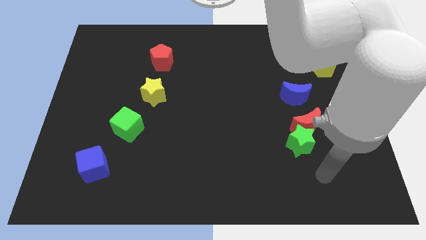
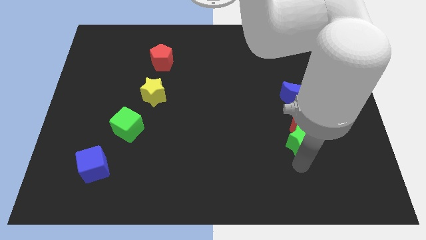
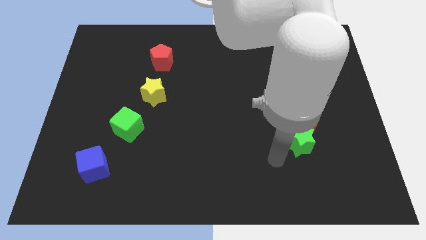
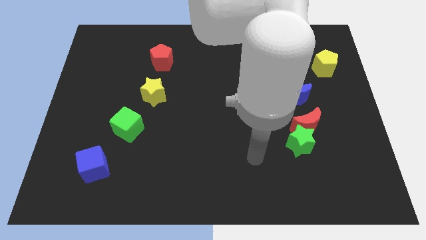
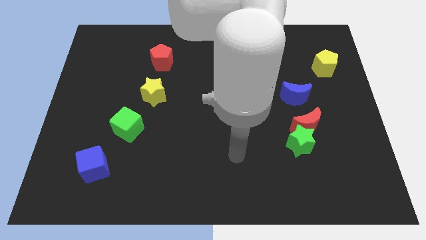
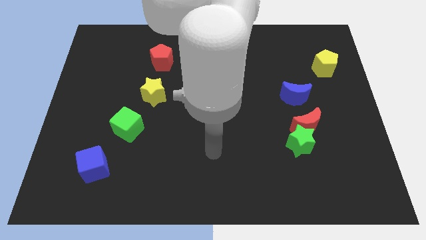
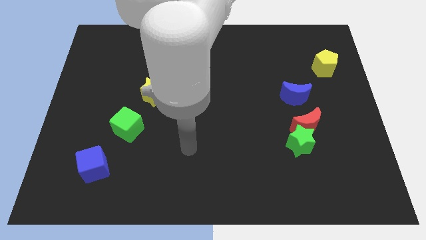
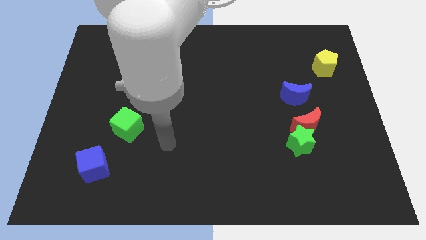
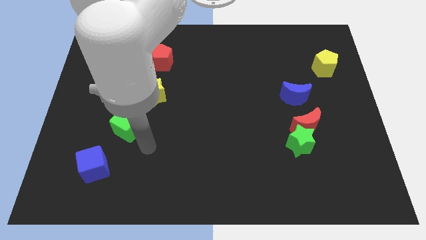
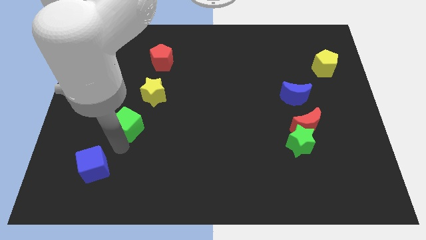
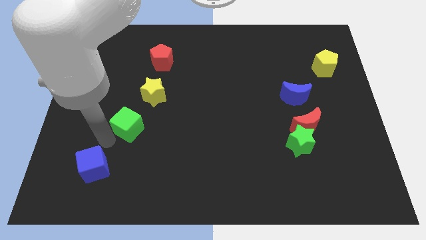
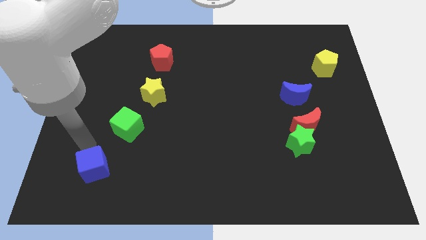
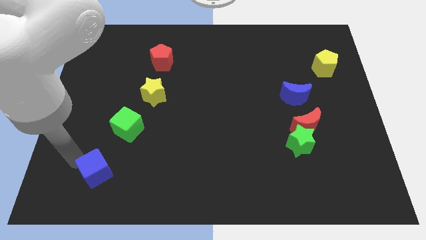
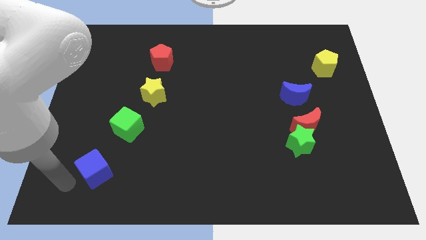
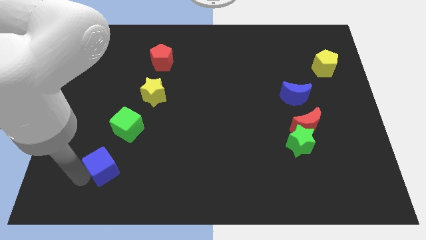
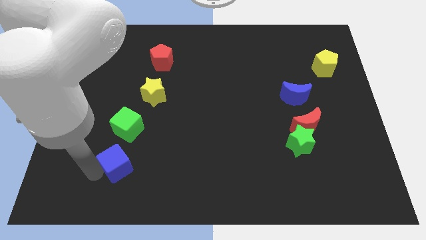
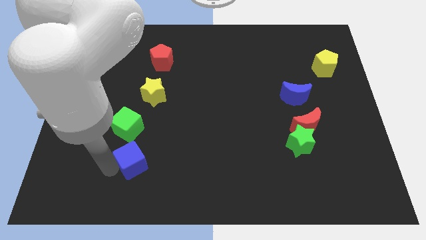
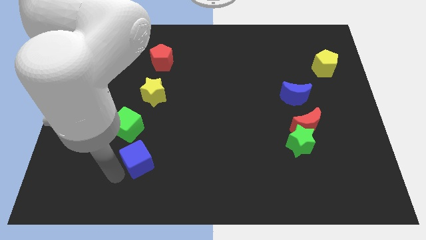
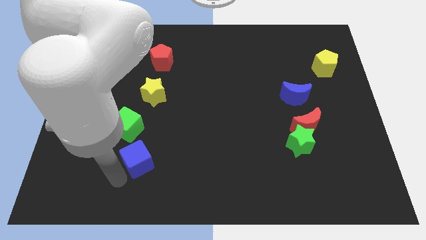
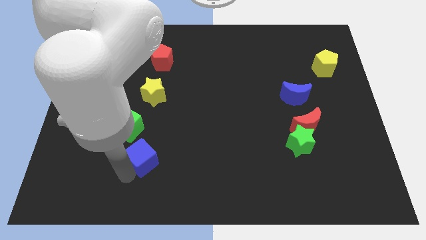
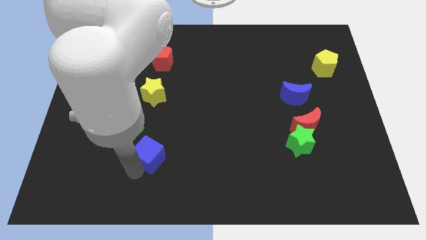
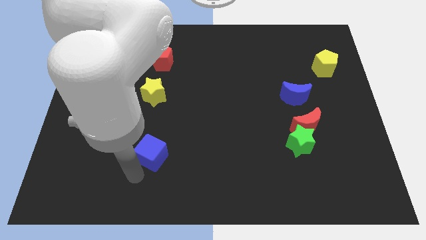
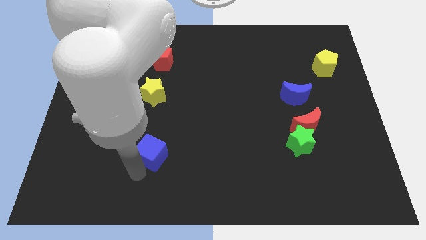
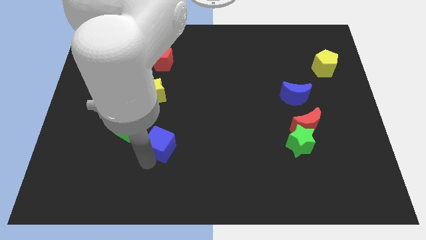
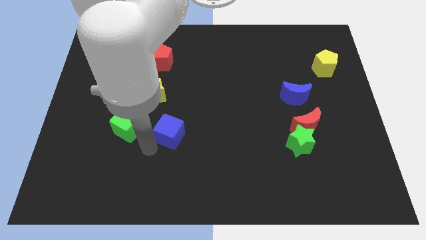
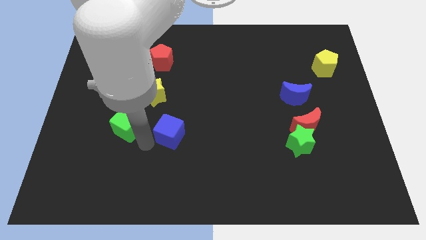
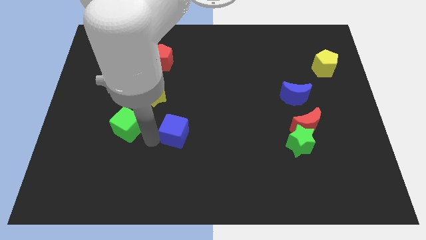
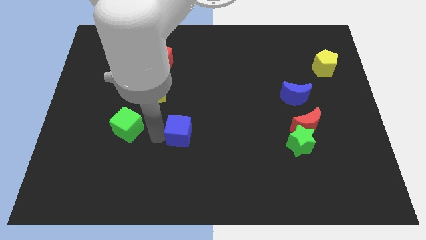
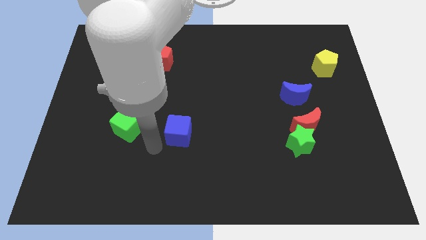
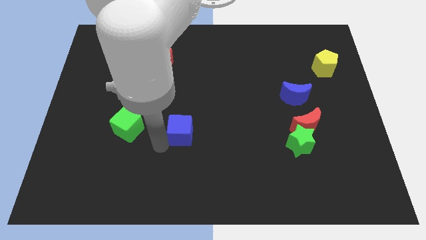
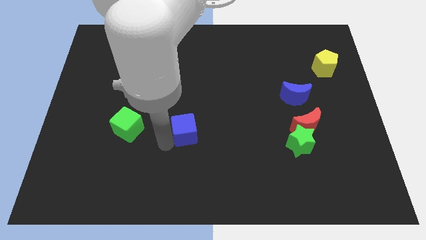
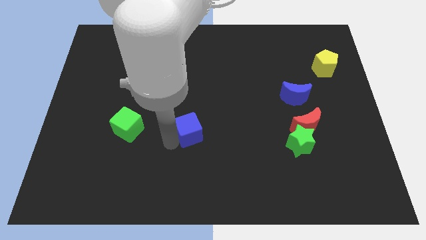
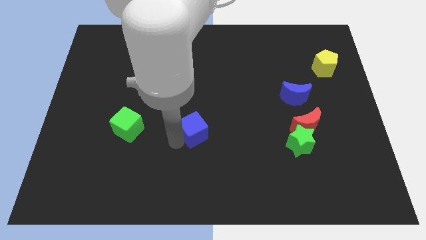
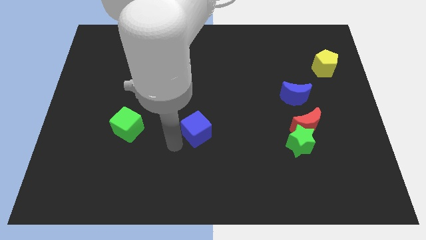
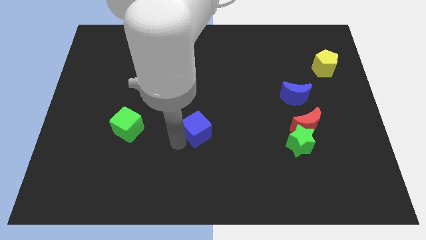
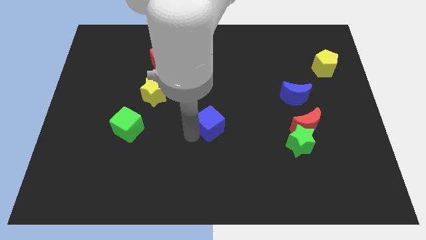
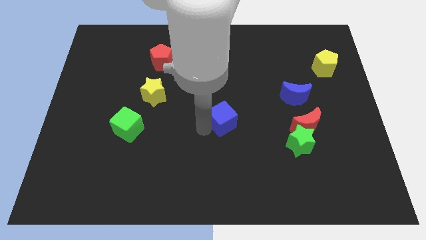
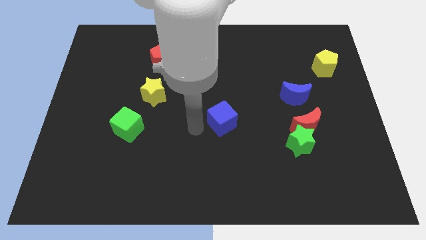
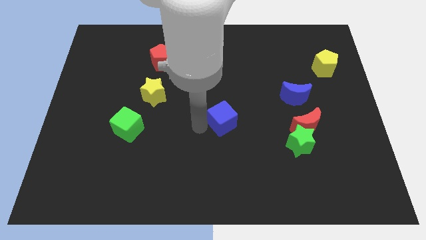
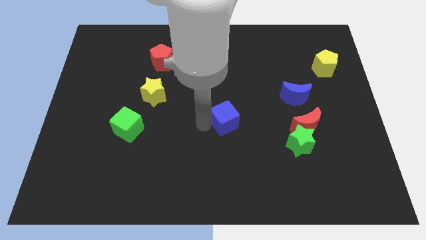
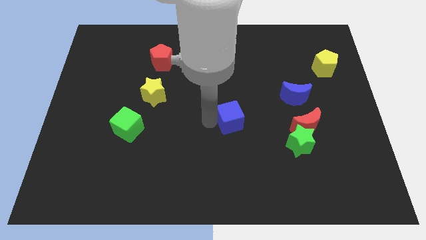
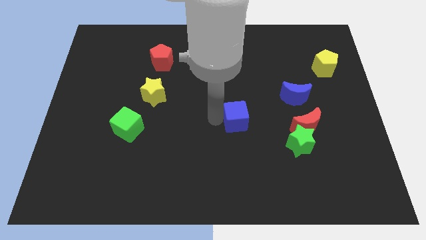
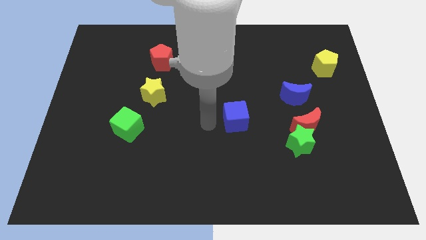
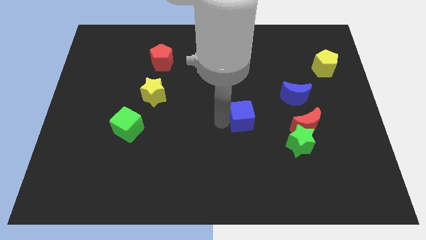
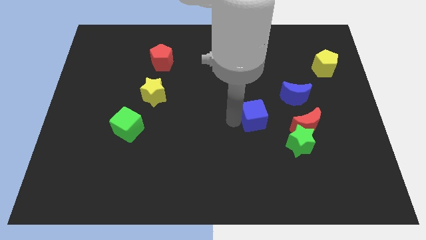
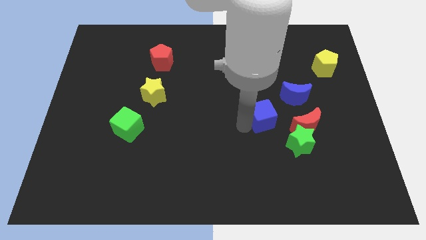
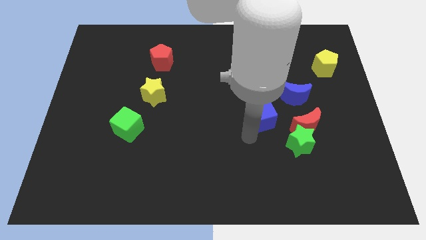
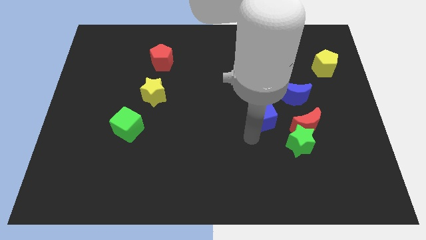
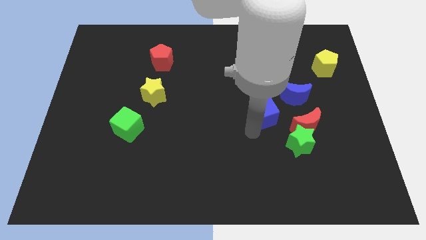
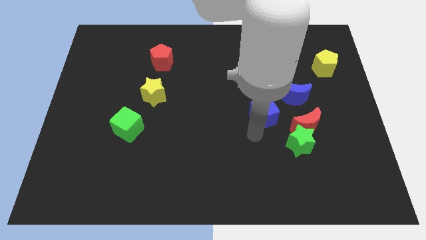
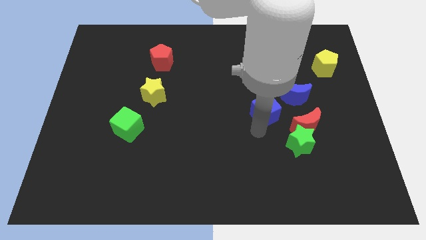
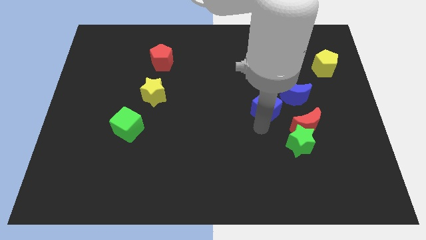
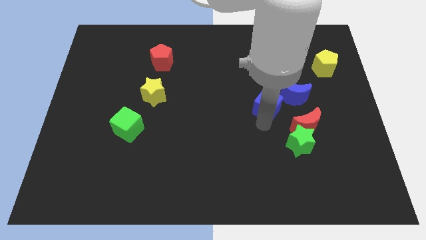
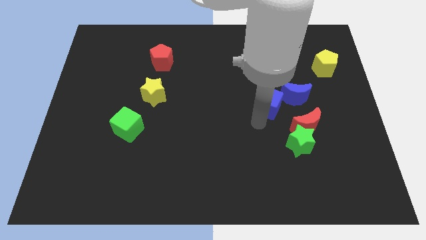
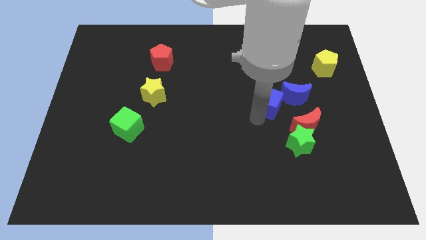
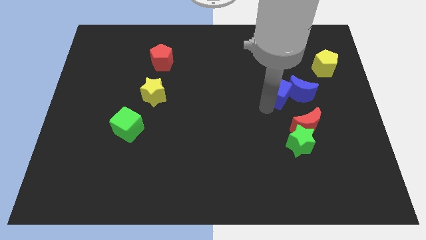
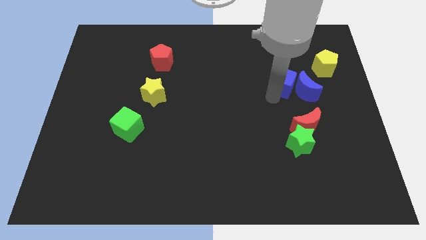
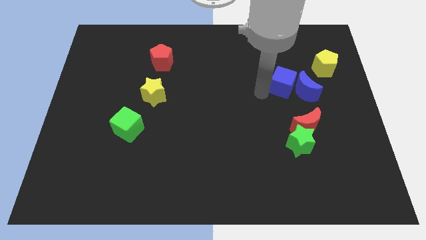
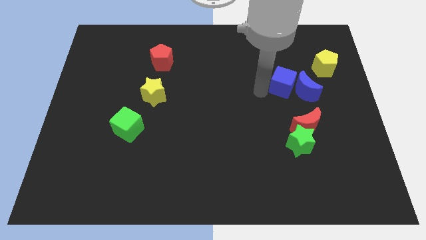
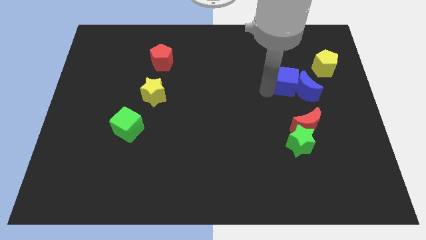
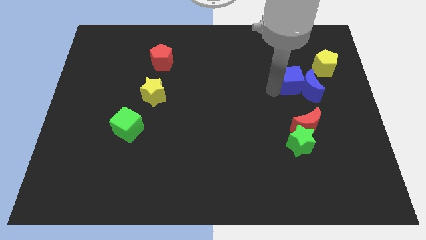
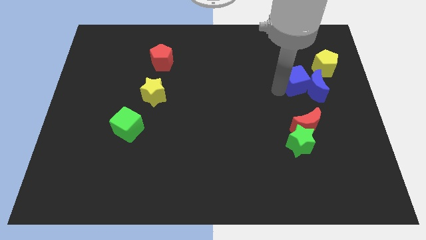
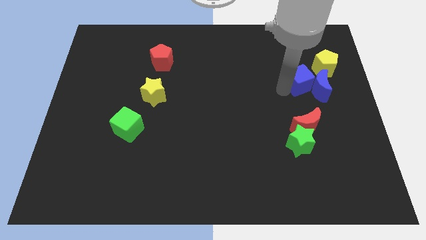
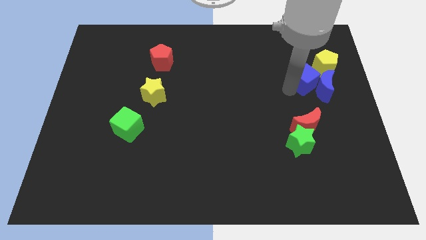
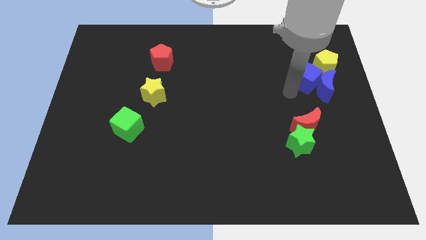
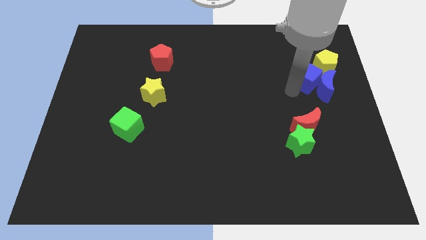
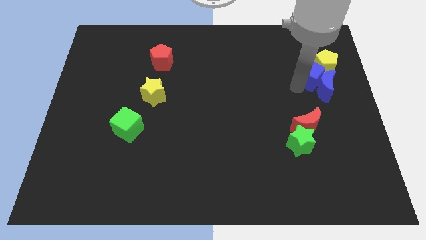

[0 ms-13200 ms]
put the blue cube next to the yellow pentagon

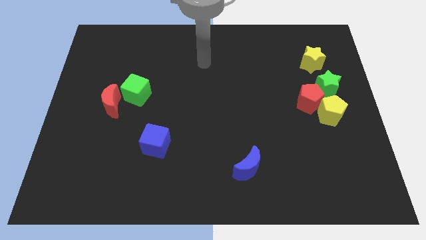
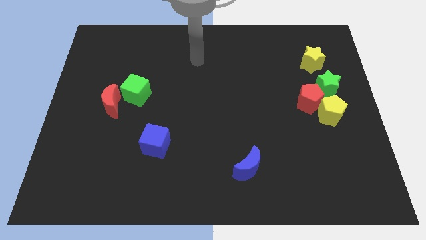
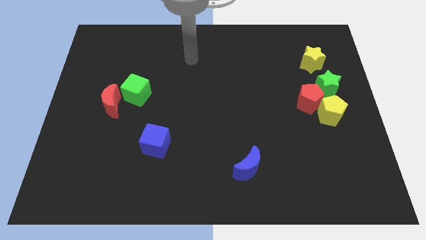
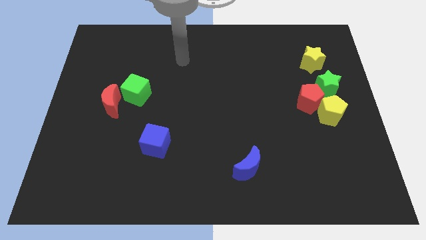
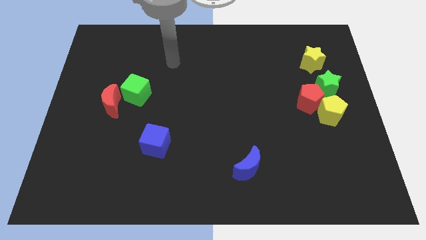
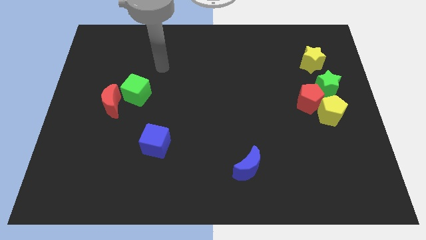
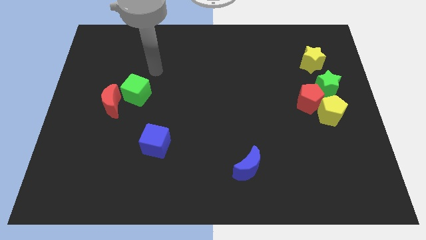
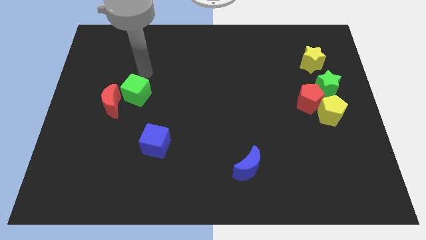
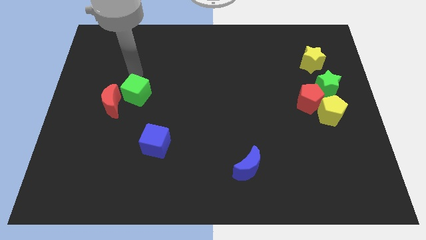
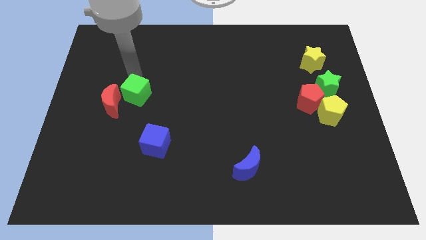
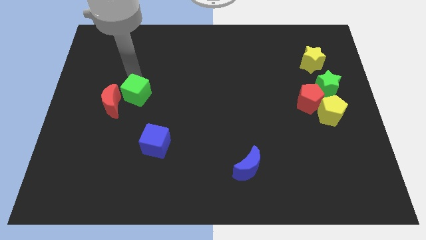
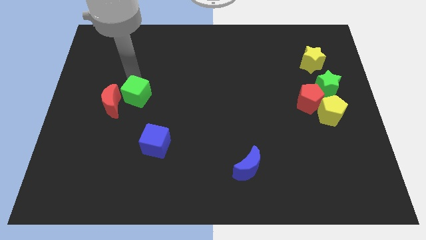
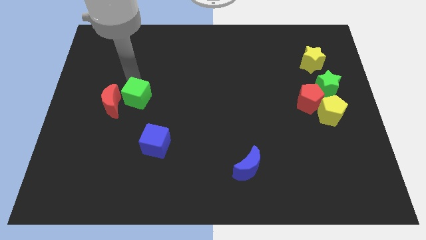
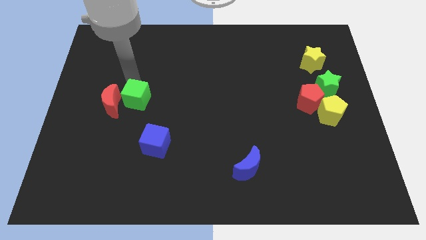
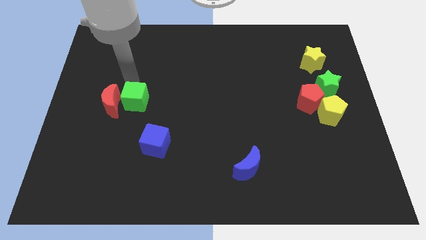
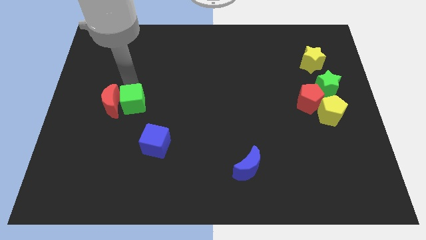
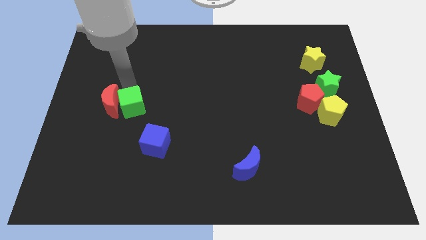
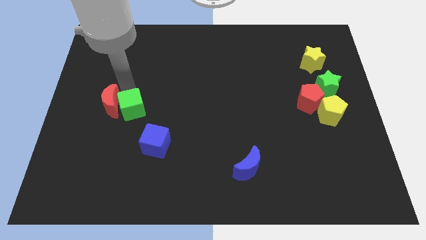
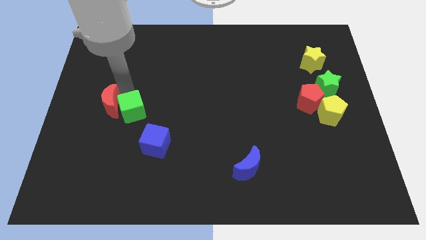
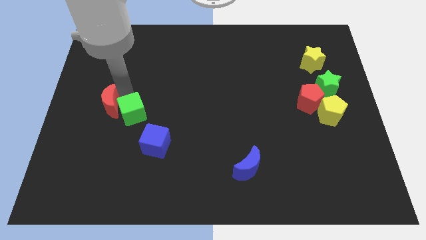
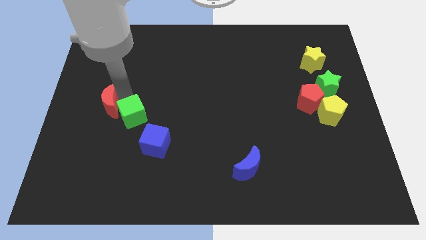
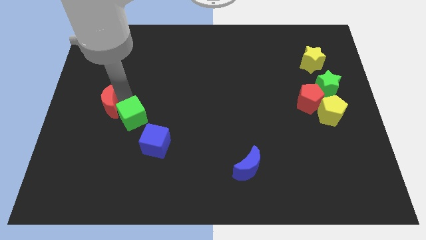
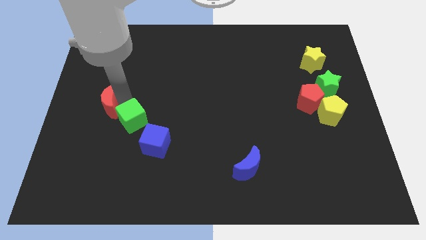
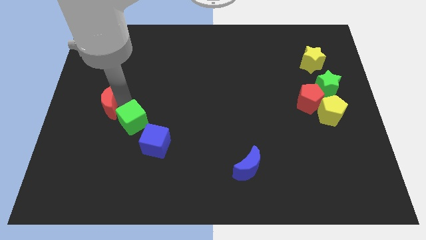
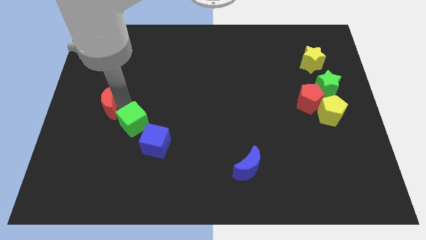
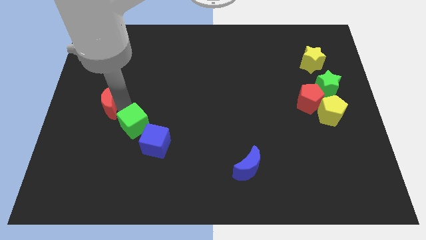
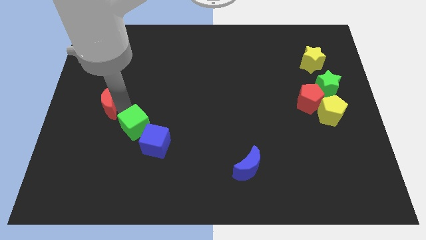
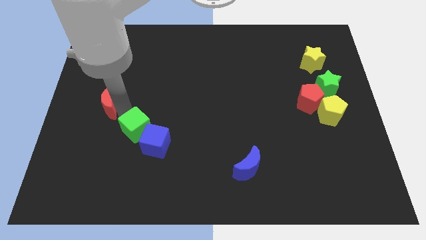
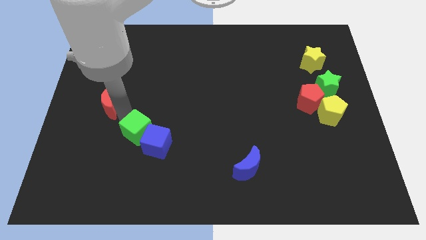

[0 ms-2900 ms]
slide the green cube towards the blue cube
